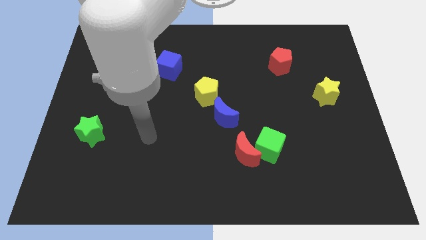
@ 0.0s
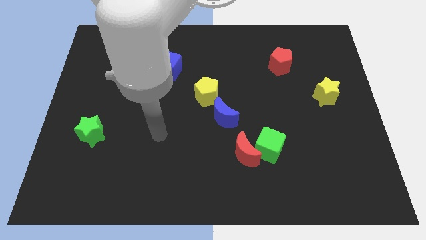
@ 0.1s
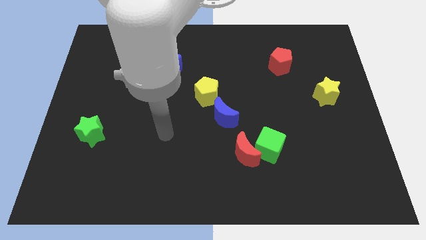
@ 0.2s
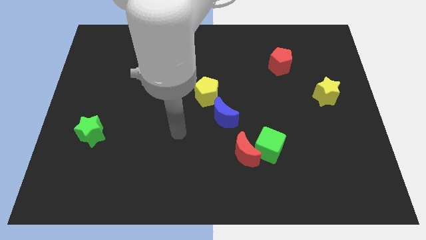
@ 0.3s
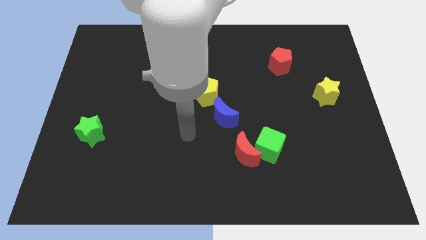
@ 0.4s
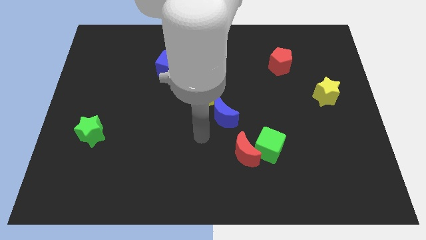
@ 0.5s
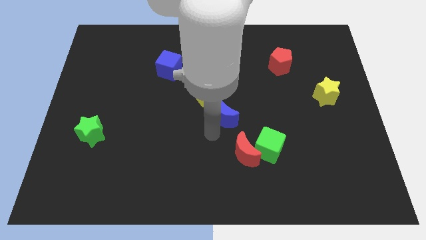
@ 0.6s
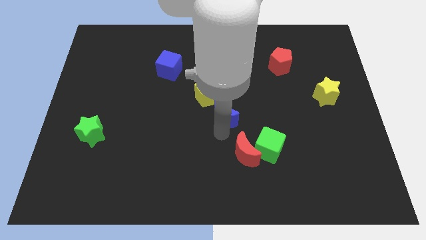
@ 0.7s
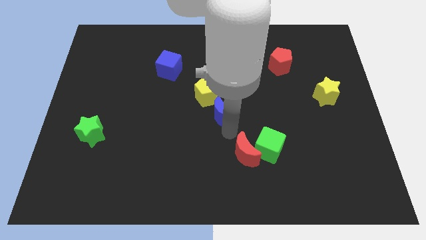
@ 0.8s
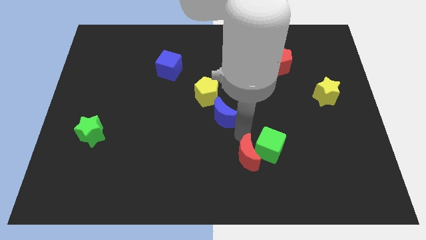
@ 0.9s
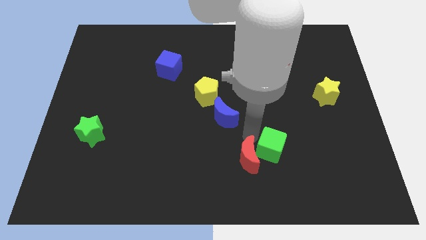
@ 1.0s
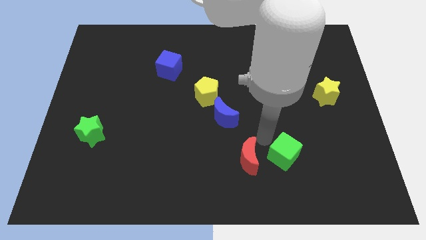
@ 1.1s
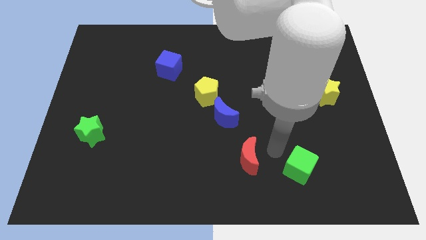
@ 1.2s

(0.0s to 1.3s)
pull the red moon apart from the green cube

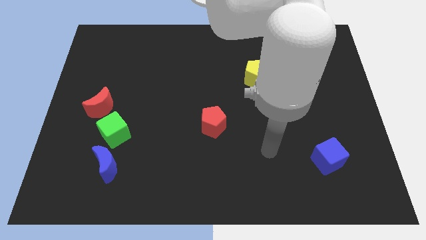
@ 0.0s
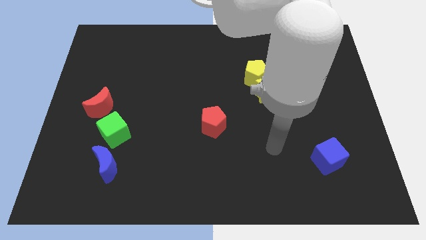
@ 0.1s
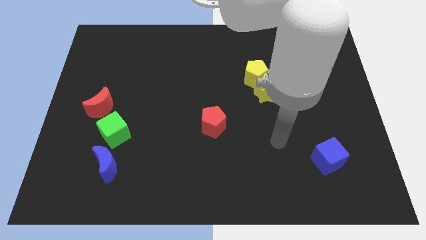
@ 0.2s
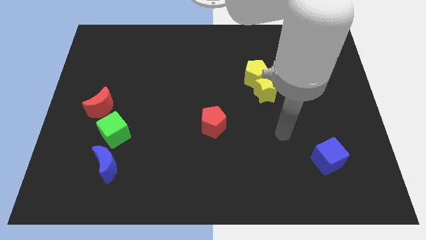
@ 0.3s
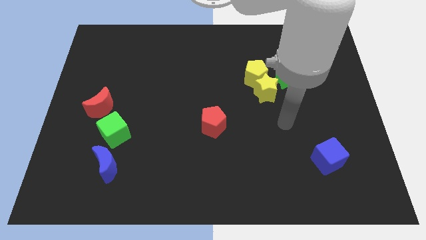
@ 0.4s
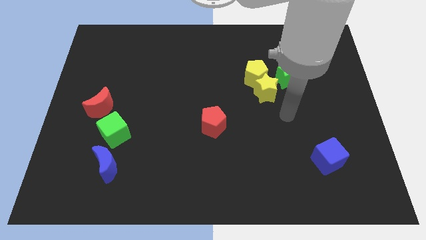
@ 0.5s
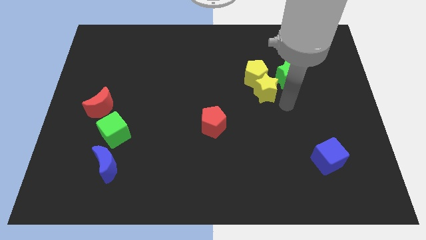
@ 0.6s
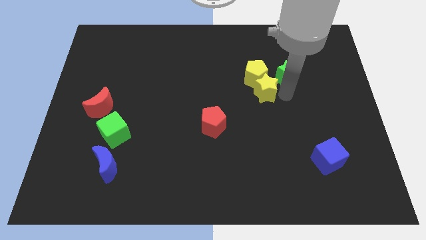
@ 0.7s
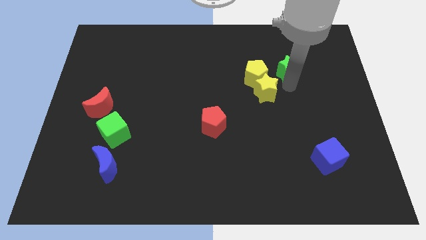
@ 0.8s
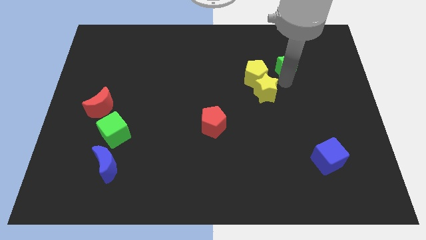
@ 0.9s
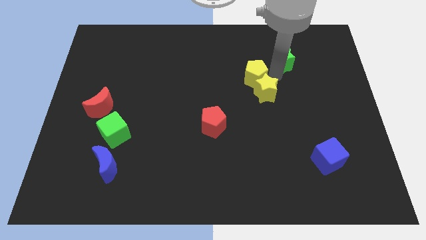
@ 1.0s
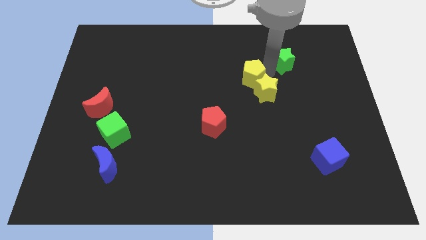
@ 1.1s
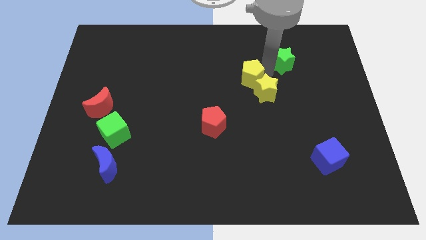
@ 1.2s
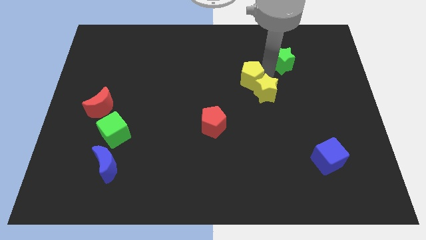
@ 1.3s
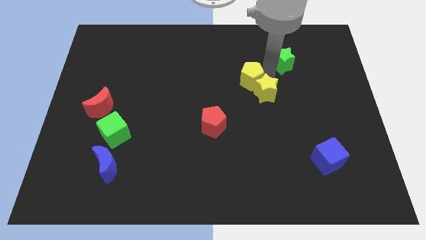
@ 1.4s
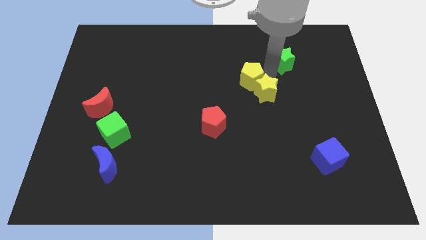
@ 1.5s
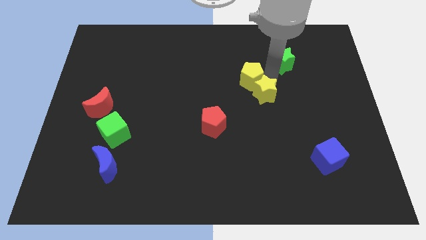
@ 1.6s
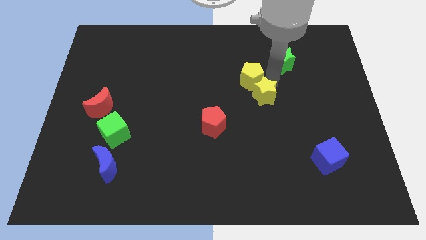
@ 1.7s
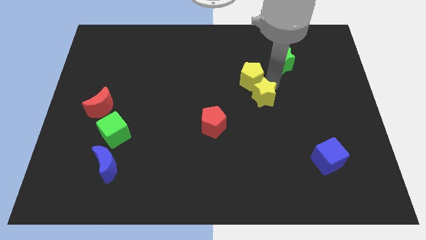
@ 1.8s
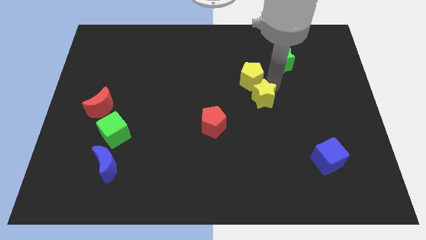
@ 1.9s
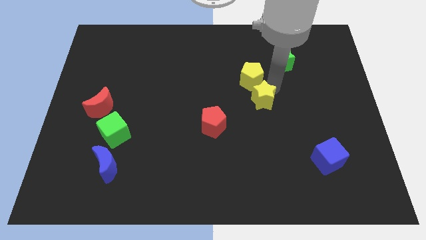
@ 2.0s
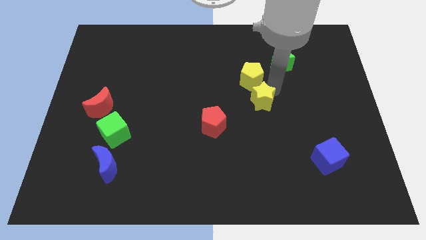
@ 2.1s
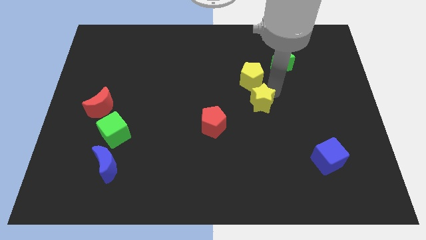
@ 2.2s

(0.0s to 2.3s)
separate the yellow star from the yellow pentagon and green star

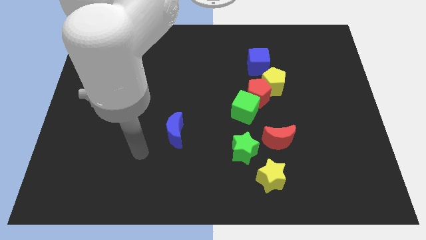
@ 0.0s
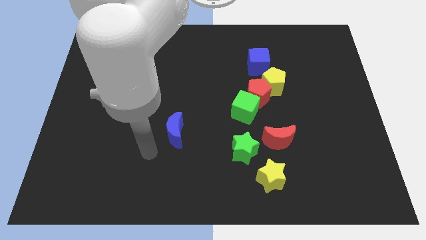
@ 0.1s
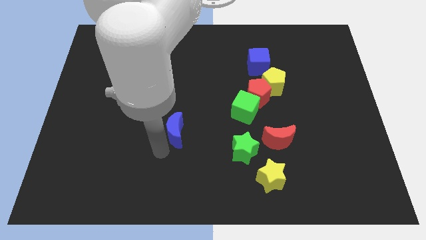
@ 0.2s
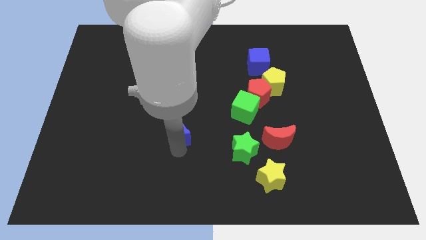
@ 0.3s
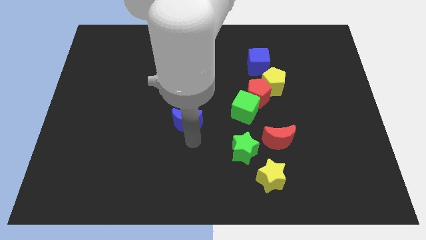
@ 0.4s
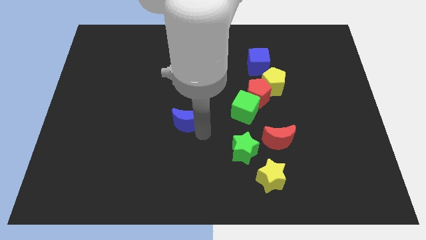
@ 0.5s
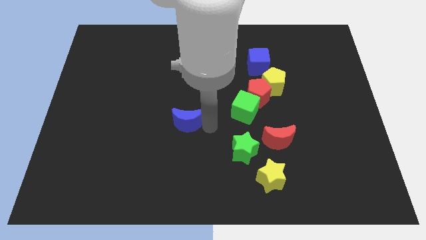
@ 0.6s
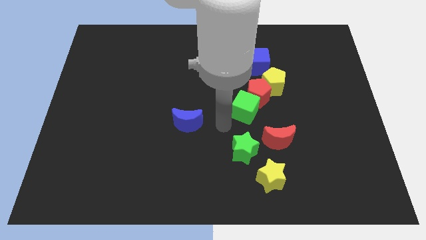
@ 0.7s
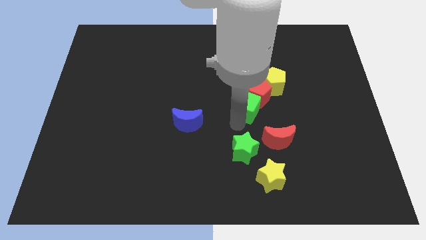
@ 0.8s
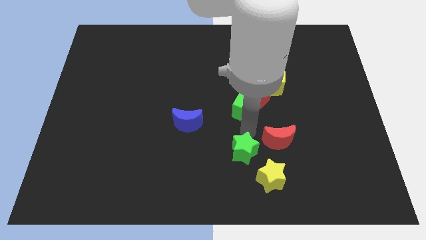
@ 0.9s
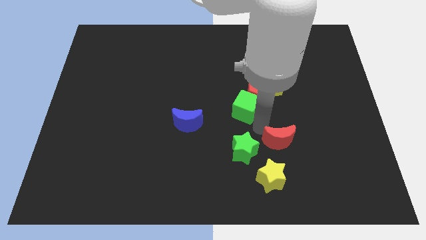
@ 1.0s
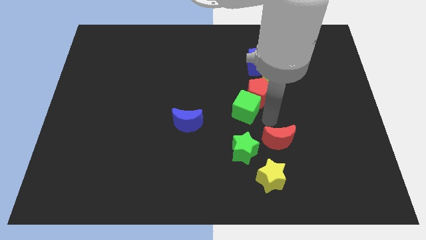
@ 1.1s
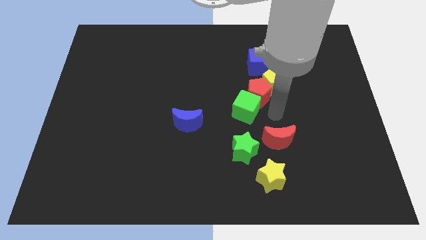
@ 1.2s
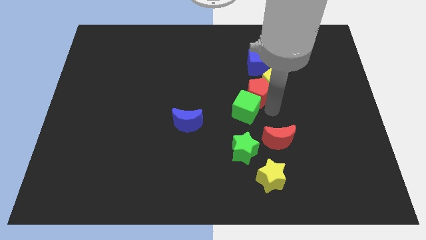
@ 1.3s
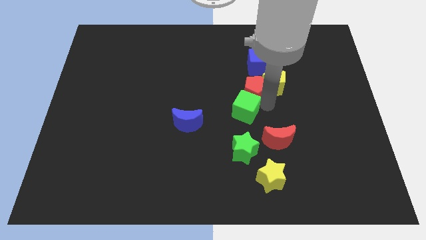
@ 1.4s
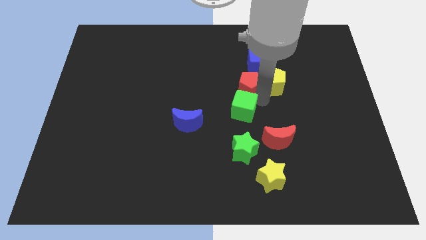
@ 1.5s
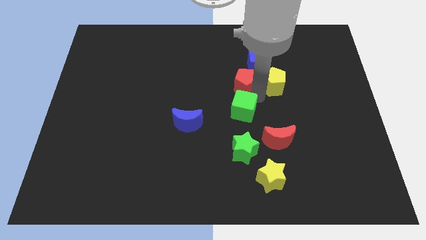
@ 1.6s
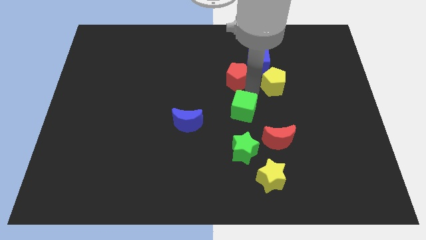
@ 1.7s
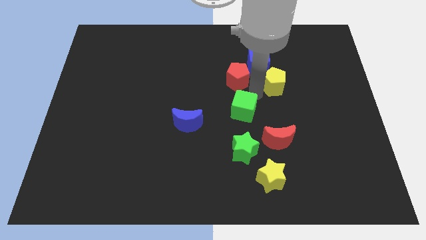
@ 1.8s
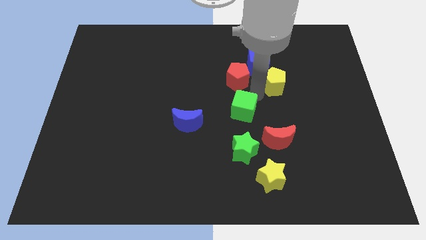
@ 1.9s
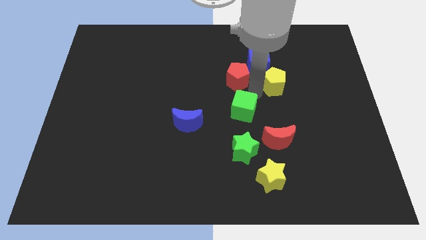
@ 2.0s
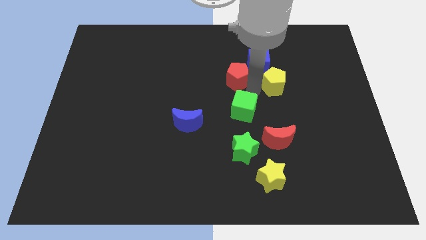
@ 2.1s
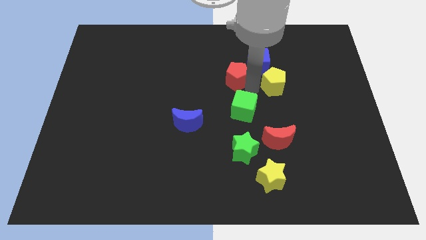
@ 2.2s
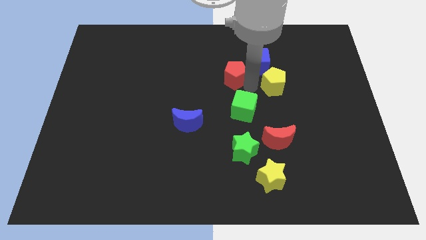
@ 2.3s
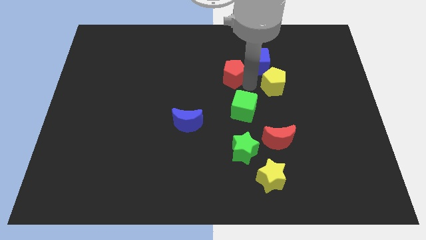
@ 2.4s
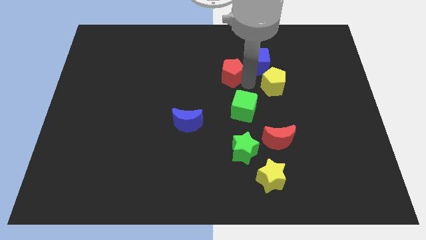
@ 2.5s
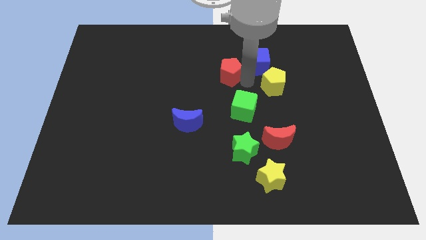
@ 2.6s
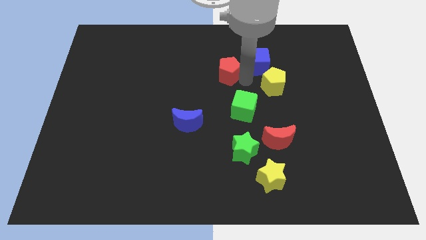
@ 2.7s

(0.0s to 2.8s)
move the red pentagon away from the yellow pentagon and green cube

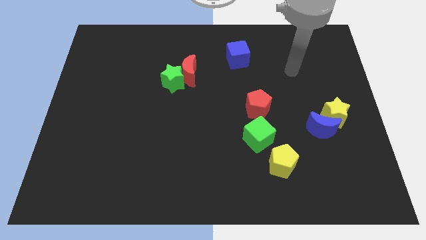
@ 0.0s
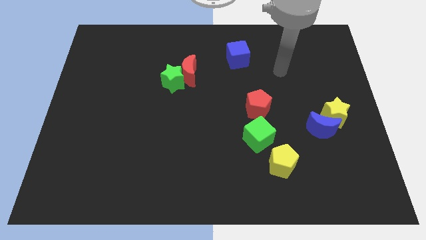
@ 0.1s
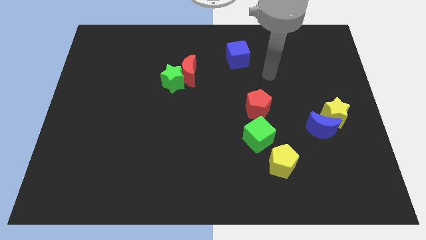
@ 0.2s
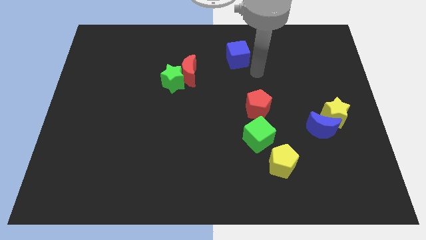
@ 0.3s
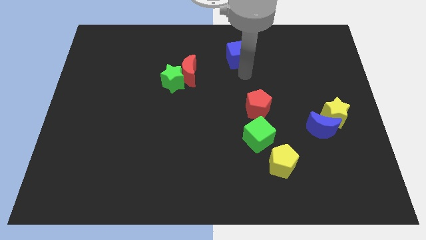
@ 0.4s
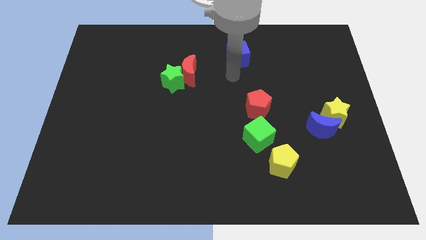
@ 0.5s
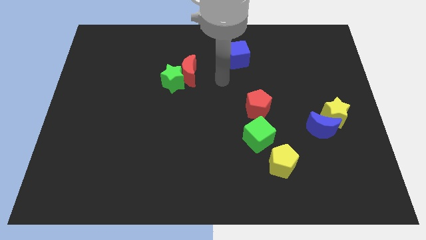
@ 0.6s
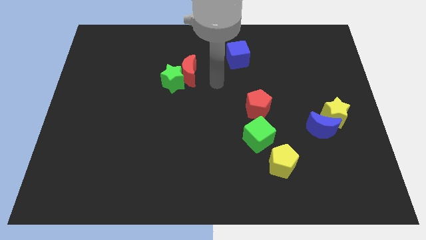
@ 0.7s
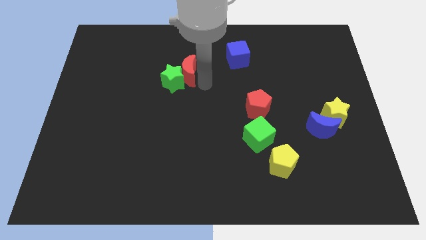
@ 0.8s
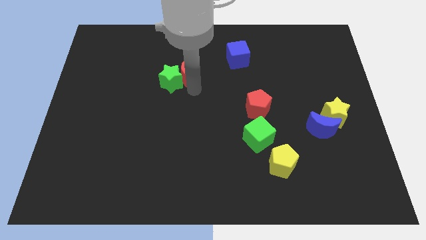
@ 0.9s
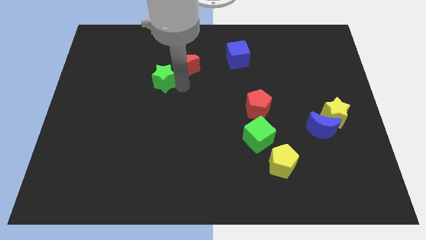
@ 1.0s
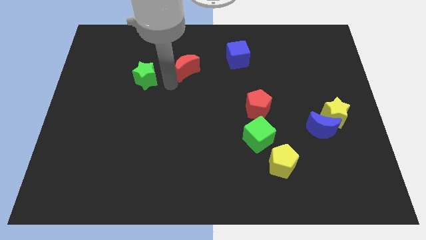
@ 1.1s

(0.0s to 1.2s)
separate the red moon from the green star

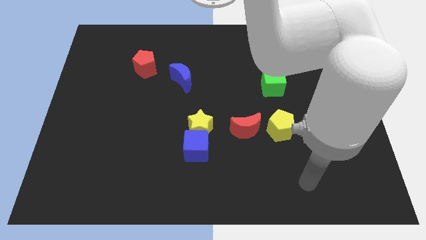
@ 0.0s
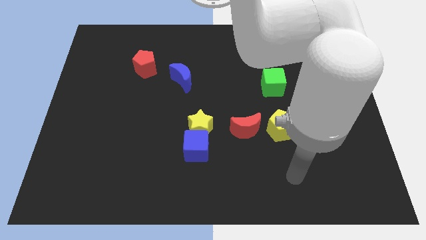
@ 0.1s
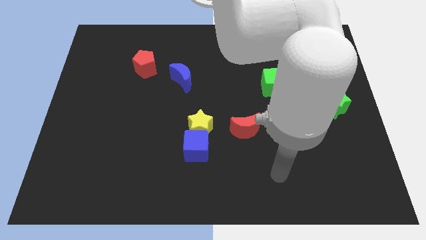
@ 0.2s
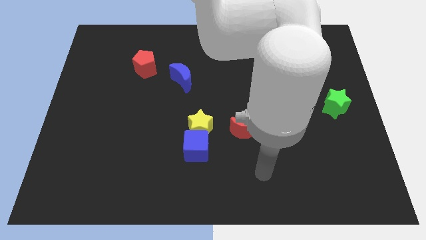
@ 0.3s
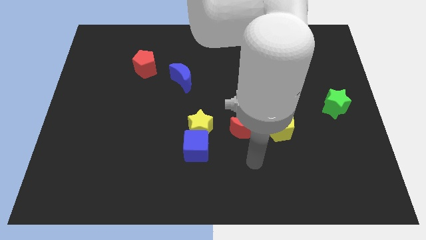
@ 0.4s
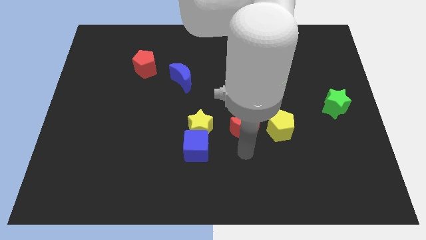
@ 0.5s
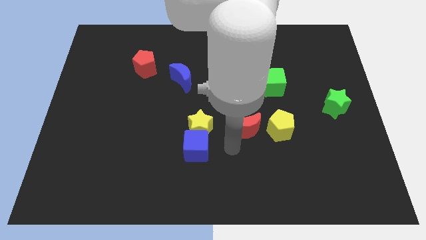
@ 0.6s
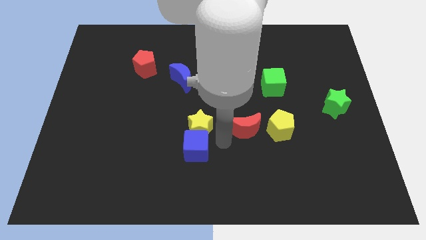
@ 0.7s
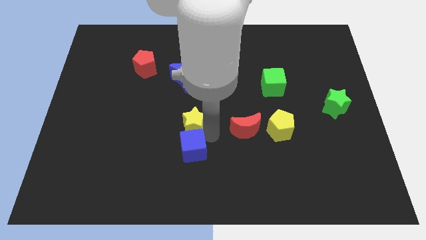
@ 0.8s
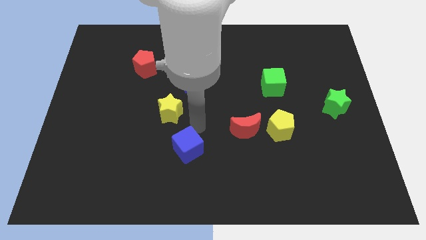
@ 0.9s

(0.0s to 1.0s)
move the blue cube away from the yellow star

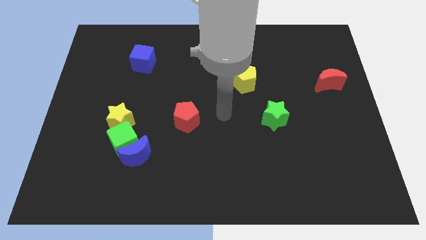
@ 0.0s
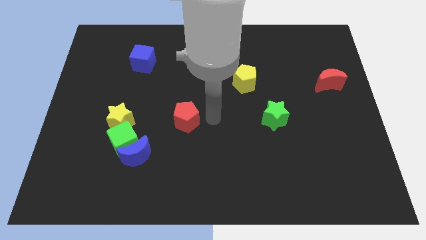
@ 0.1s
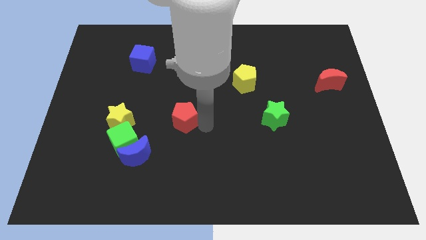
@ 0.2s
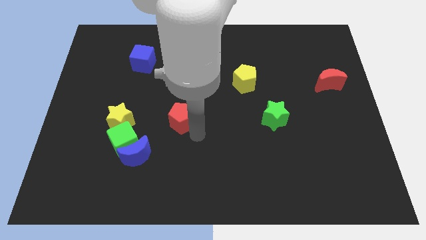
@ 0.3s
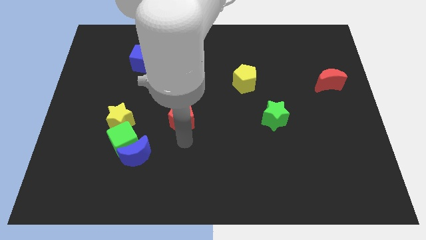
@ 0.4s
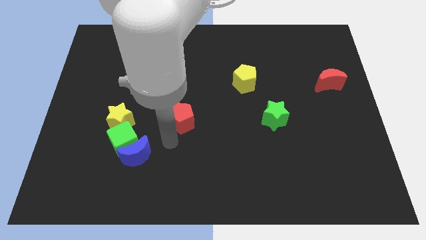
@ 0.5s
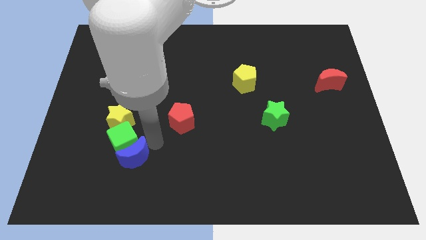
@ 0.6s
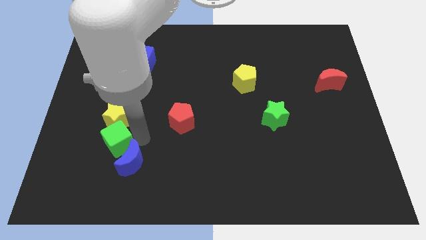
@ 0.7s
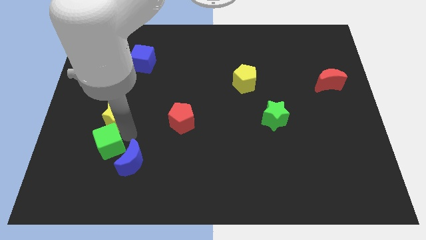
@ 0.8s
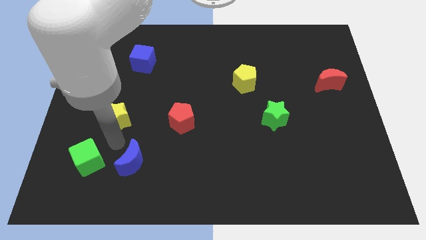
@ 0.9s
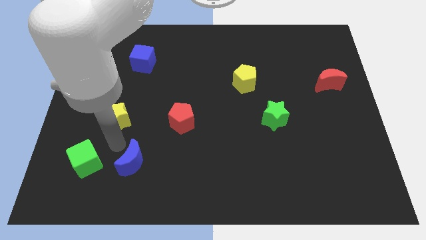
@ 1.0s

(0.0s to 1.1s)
pull the blue moon apart from the green cube
